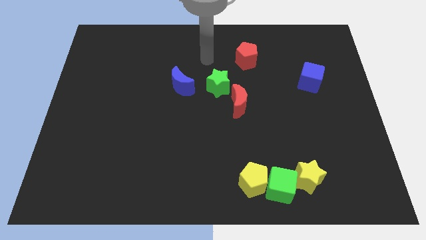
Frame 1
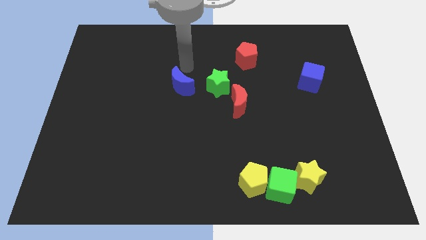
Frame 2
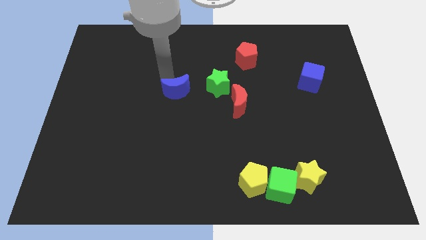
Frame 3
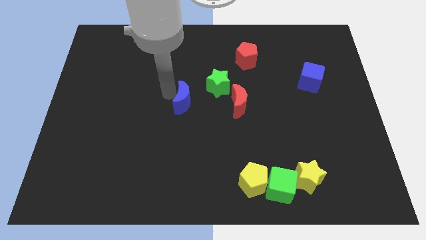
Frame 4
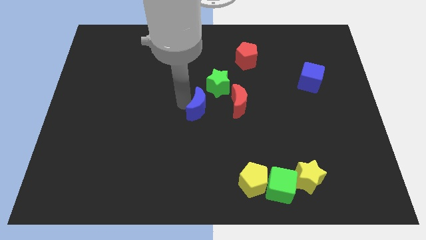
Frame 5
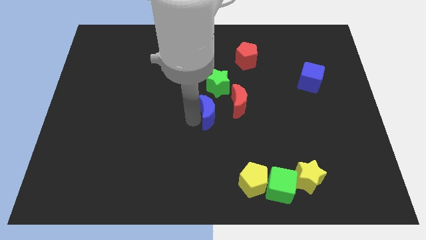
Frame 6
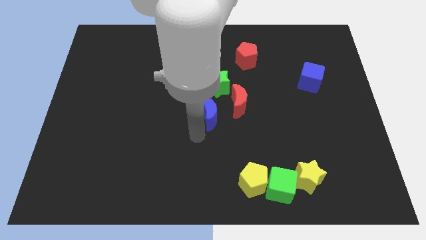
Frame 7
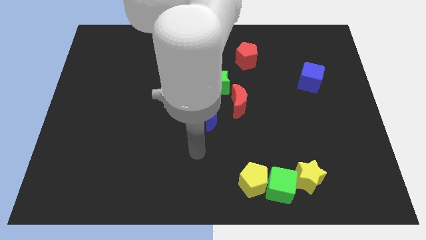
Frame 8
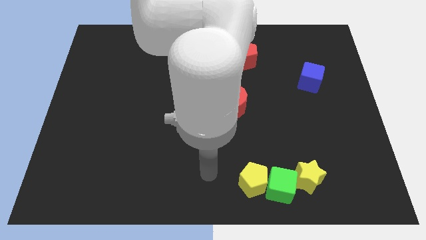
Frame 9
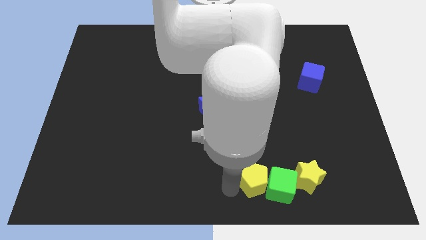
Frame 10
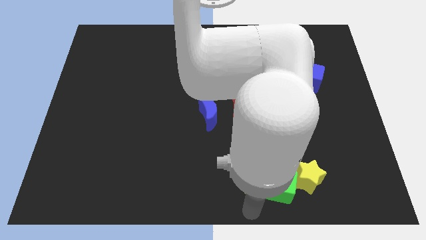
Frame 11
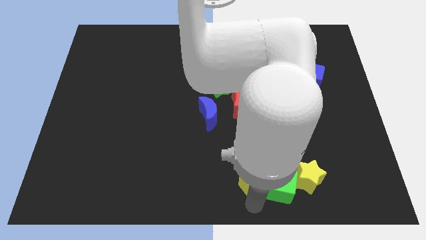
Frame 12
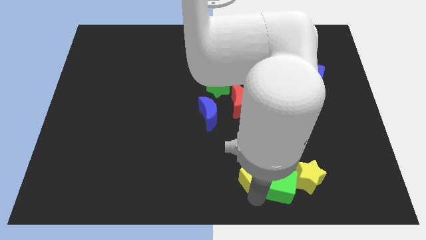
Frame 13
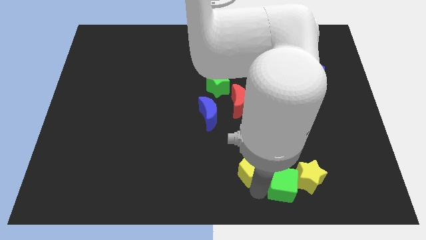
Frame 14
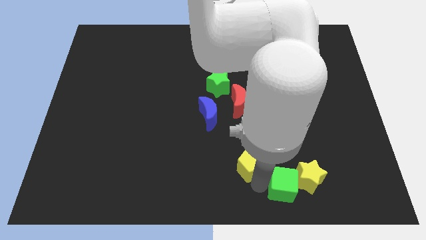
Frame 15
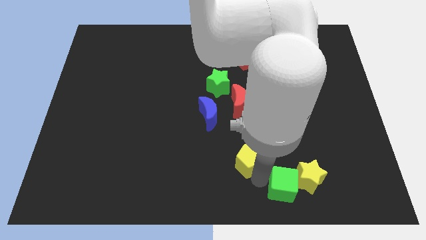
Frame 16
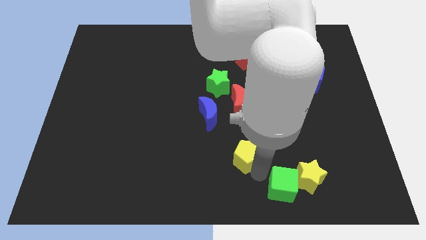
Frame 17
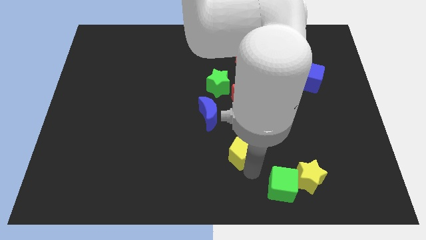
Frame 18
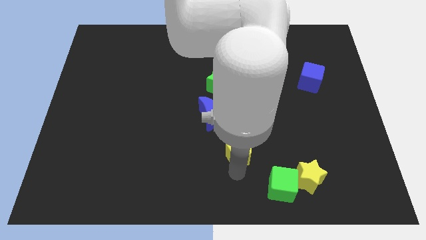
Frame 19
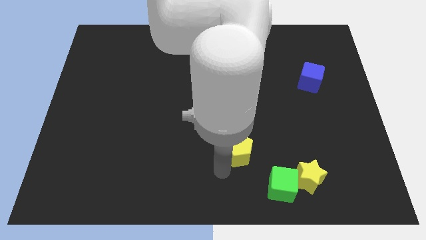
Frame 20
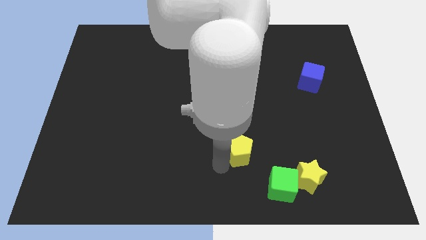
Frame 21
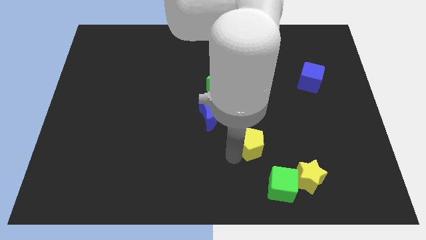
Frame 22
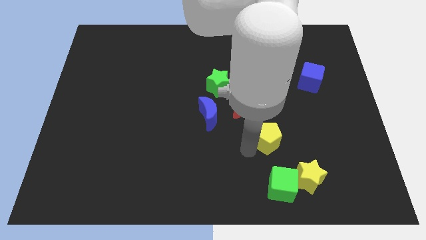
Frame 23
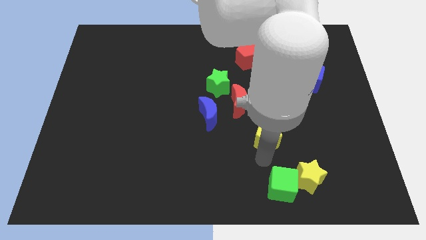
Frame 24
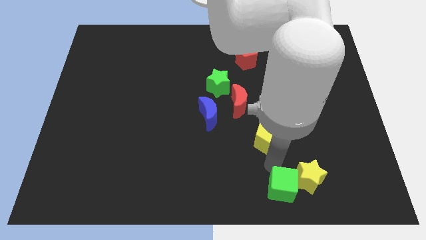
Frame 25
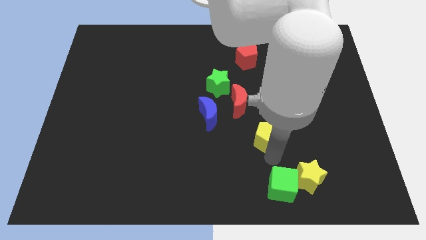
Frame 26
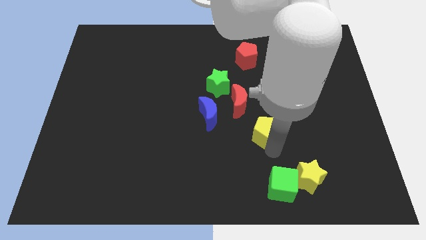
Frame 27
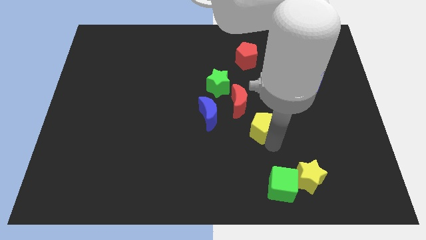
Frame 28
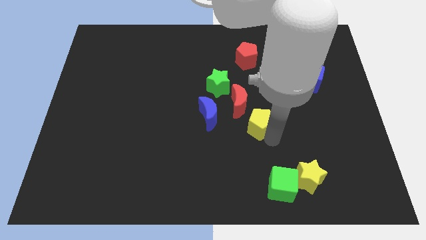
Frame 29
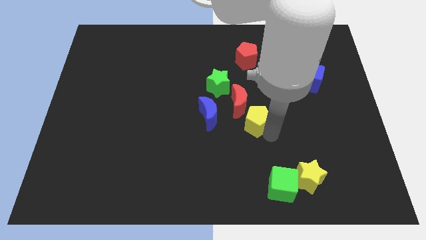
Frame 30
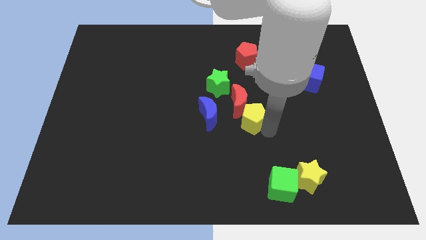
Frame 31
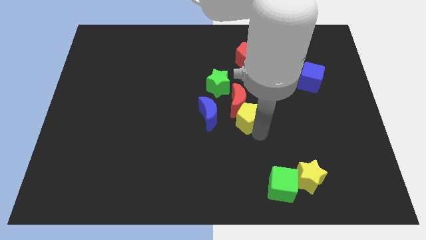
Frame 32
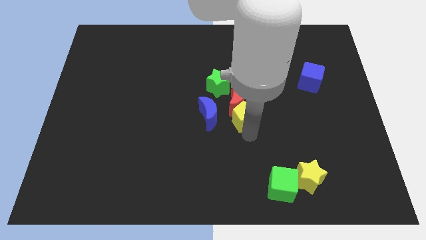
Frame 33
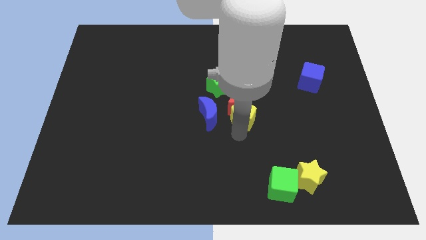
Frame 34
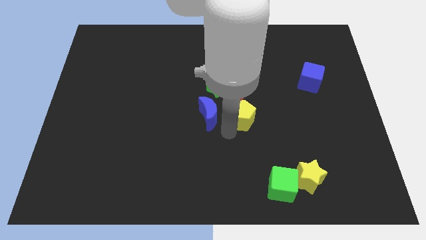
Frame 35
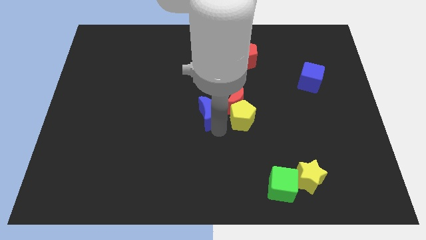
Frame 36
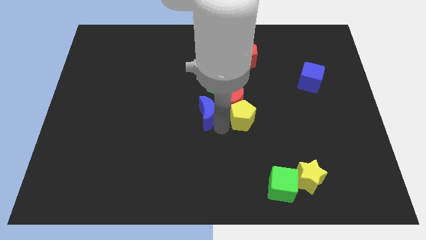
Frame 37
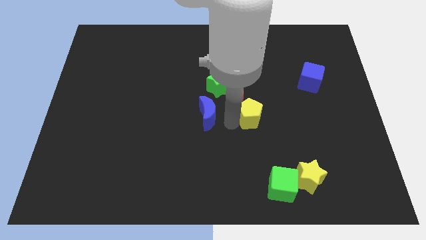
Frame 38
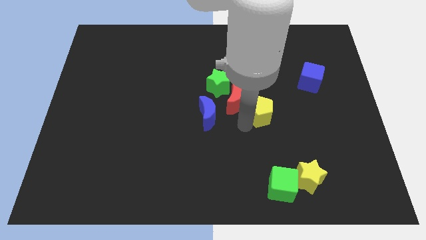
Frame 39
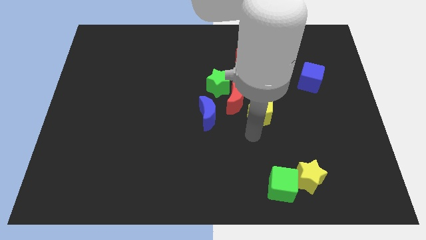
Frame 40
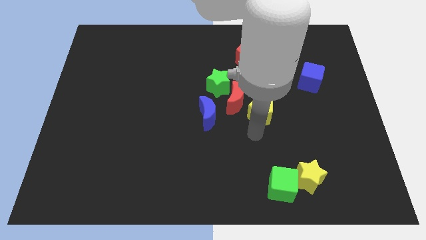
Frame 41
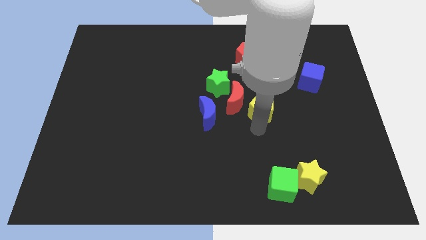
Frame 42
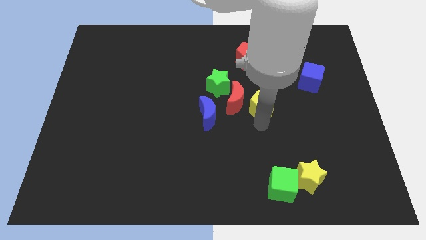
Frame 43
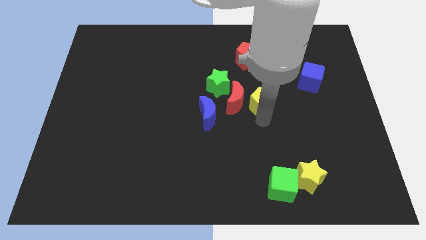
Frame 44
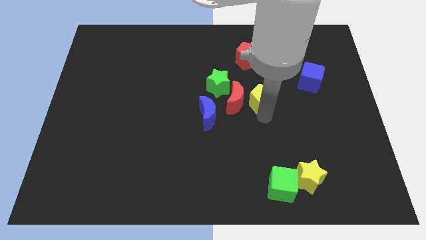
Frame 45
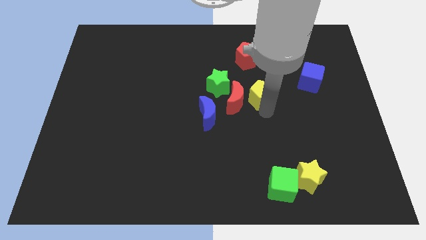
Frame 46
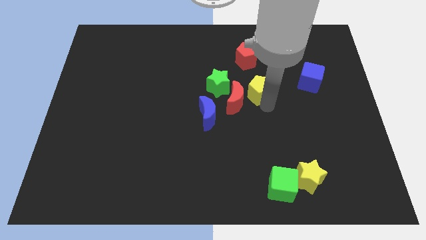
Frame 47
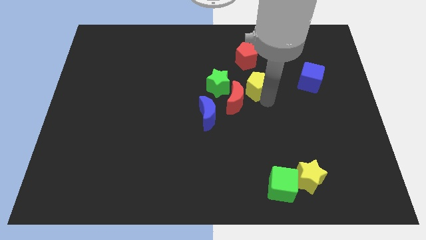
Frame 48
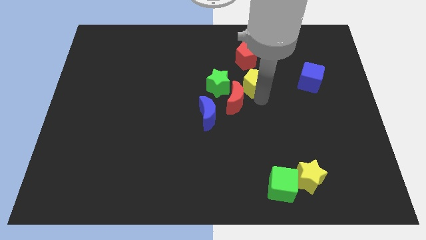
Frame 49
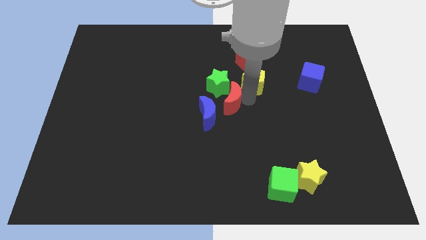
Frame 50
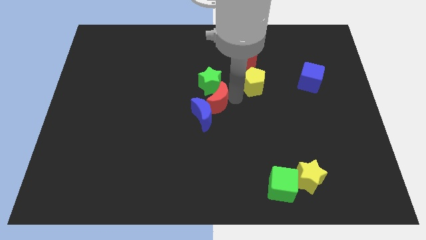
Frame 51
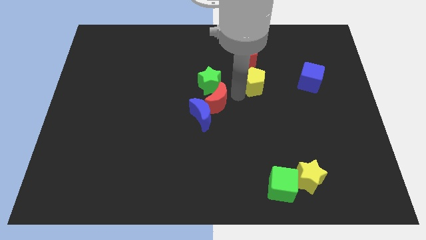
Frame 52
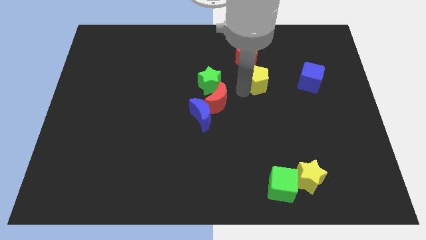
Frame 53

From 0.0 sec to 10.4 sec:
put the yellow pentagon to the bottom right side of the red pentagon

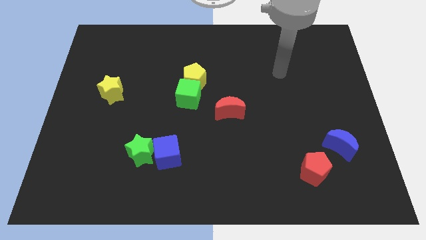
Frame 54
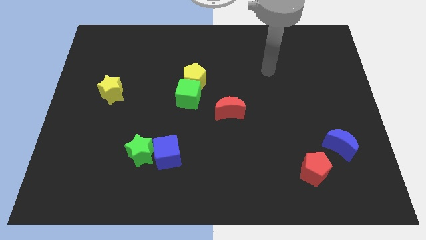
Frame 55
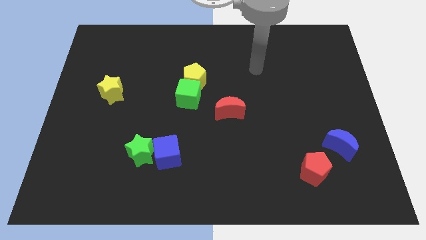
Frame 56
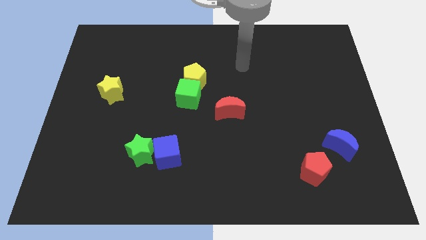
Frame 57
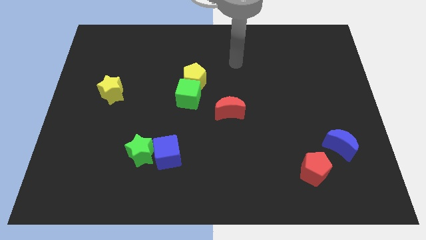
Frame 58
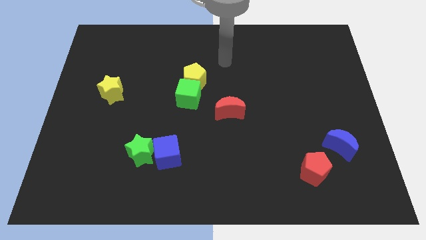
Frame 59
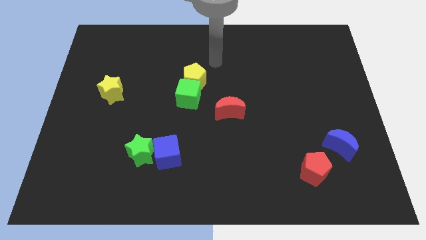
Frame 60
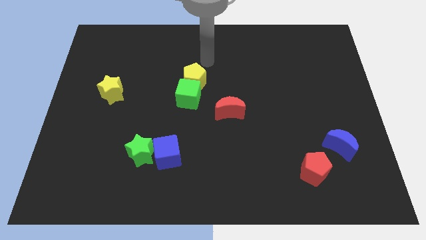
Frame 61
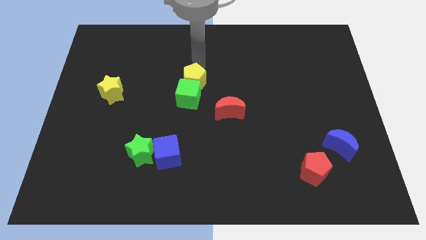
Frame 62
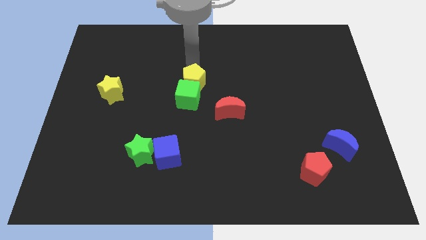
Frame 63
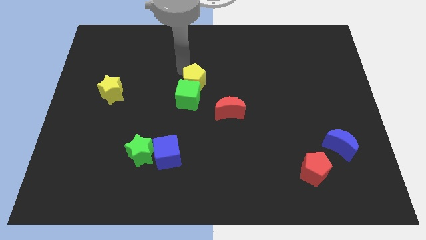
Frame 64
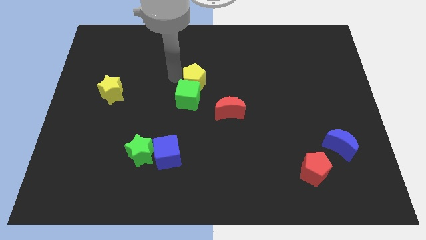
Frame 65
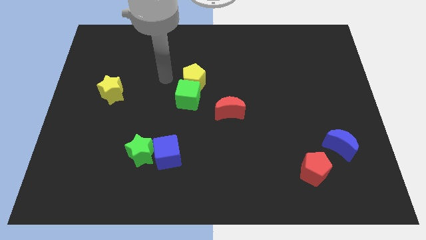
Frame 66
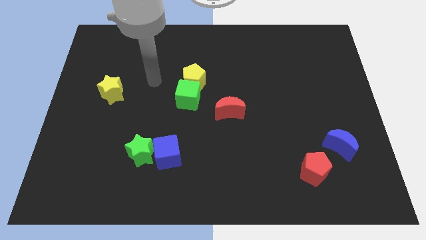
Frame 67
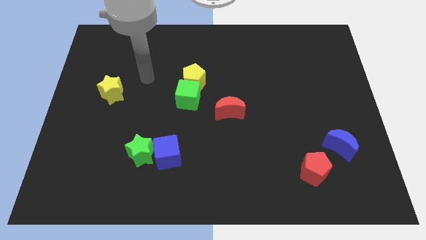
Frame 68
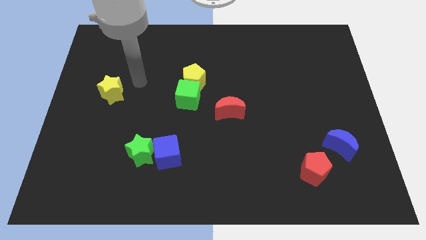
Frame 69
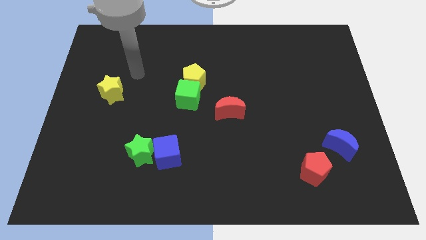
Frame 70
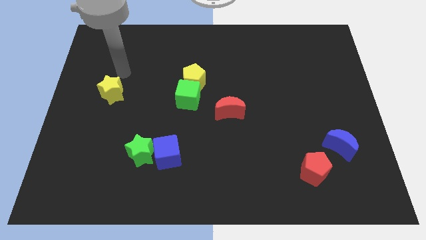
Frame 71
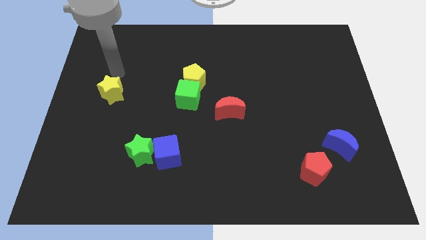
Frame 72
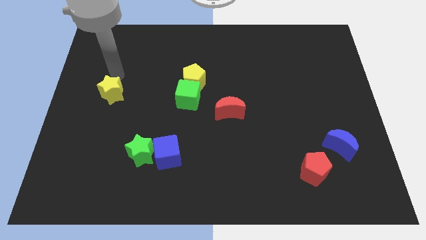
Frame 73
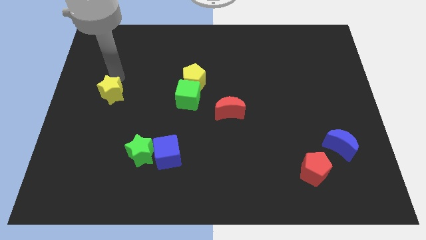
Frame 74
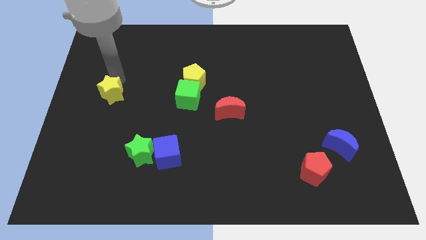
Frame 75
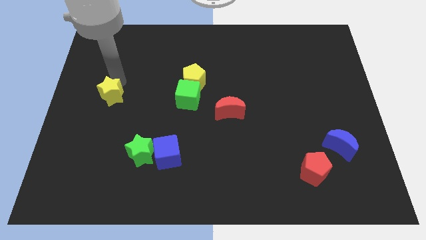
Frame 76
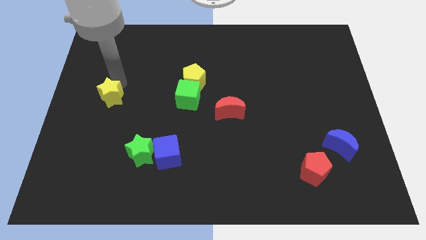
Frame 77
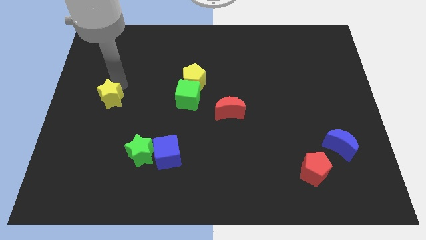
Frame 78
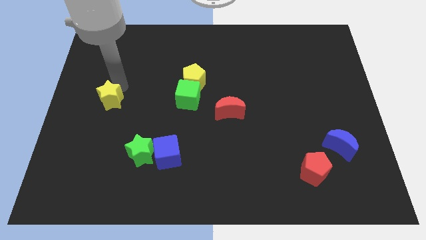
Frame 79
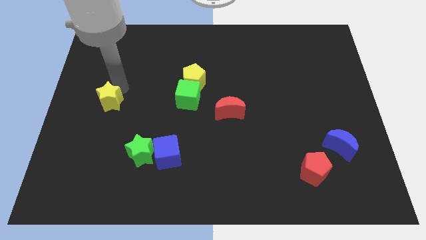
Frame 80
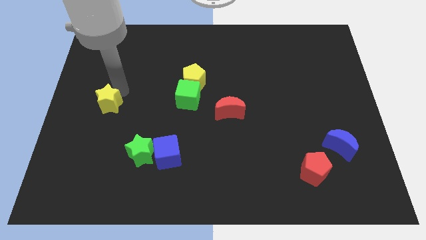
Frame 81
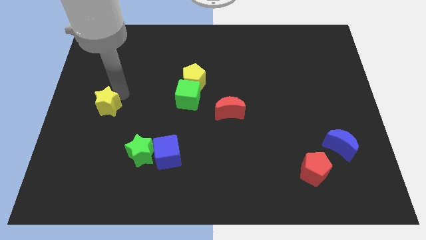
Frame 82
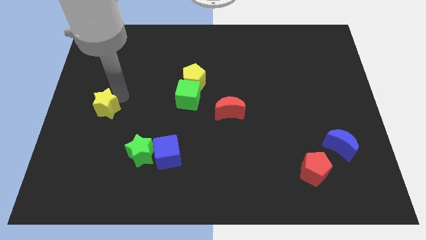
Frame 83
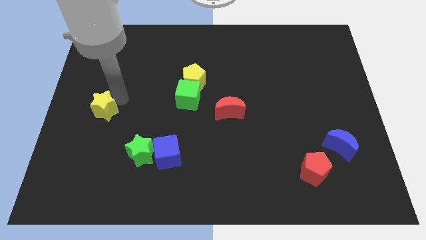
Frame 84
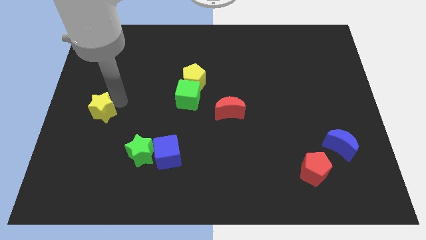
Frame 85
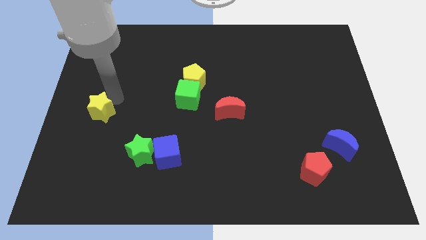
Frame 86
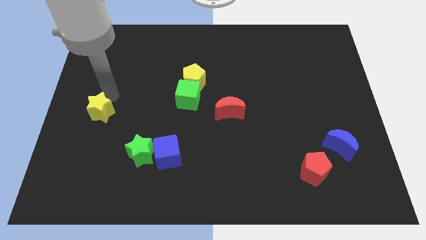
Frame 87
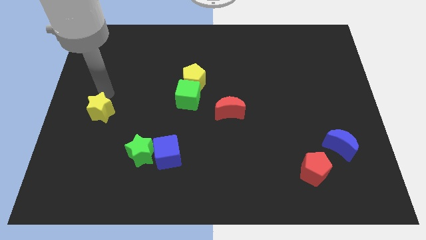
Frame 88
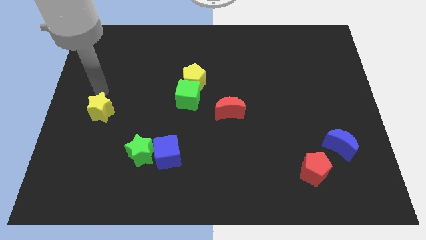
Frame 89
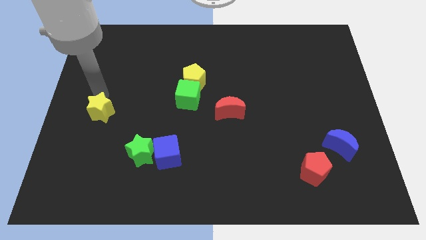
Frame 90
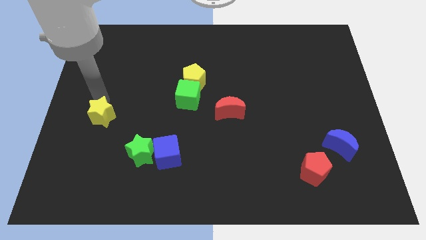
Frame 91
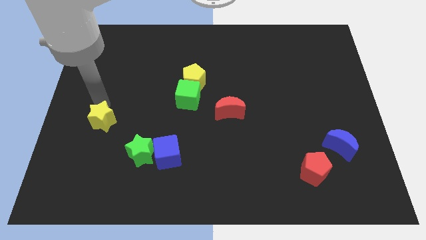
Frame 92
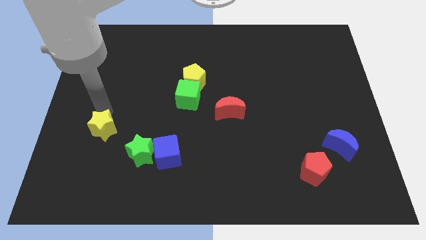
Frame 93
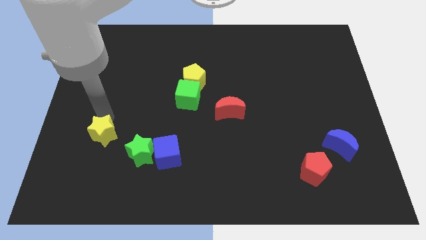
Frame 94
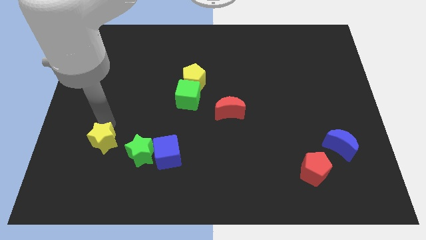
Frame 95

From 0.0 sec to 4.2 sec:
move the yellow star just left of the green star
